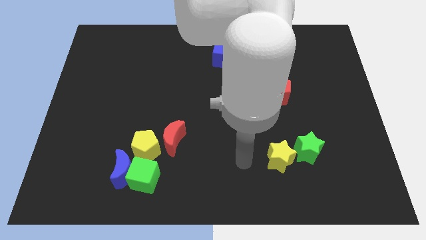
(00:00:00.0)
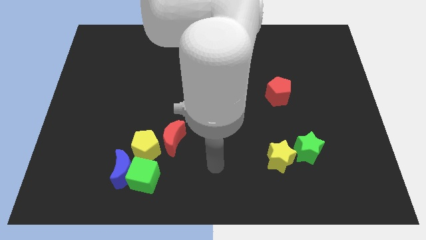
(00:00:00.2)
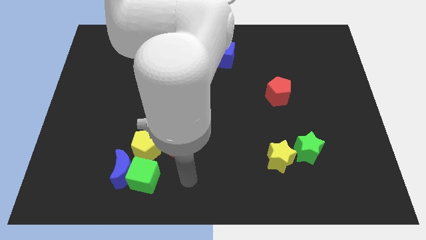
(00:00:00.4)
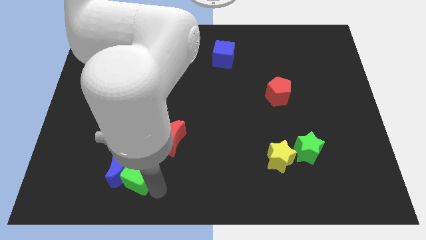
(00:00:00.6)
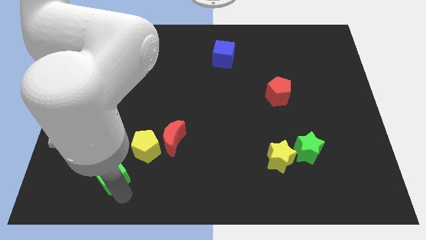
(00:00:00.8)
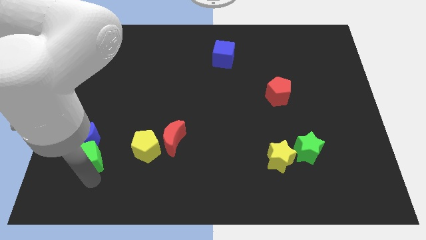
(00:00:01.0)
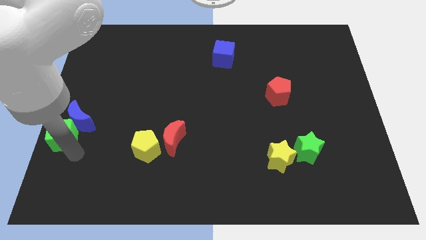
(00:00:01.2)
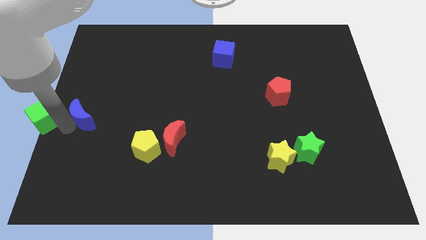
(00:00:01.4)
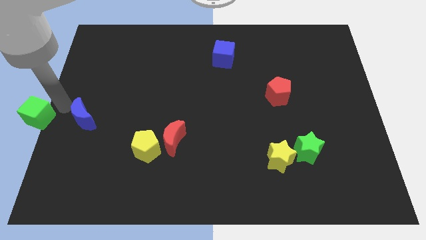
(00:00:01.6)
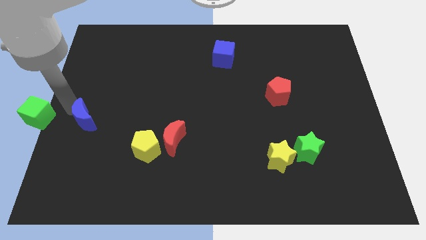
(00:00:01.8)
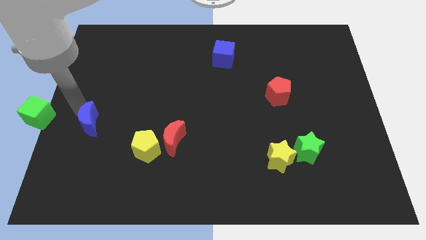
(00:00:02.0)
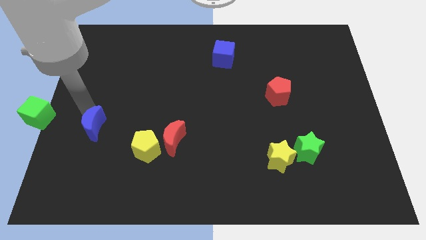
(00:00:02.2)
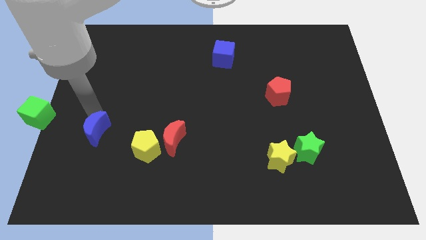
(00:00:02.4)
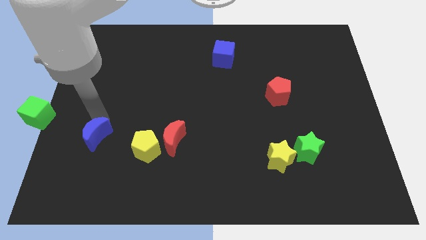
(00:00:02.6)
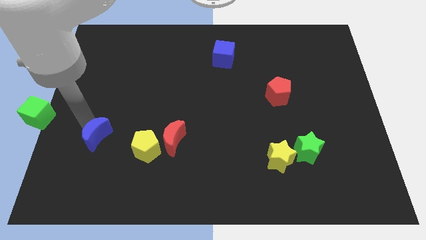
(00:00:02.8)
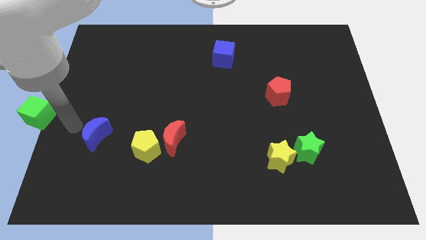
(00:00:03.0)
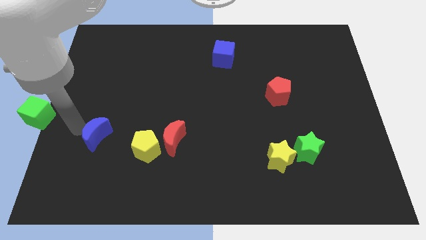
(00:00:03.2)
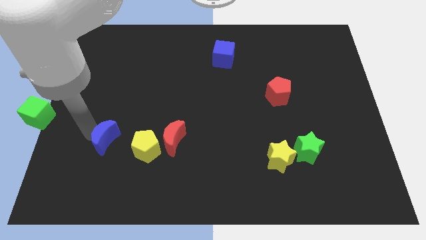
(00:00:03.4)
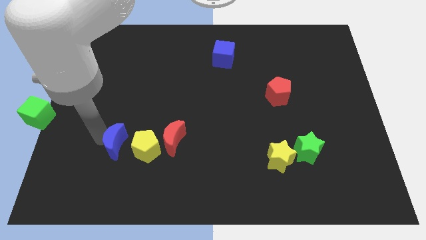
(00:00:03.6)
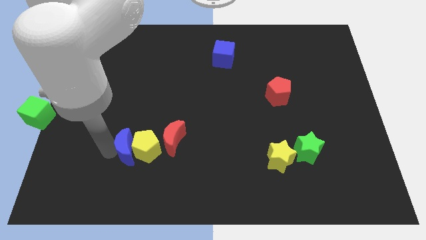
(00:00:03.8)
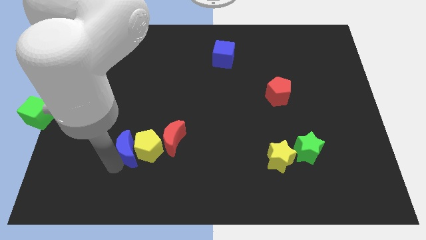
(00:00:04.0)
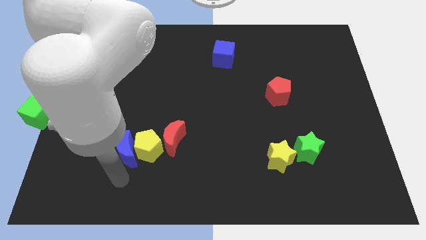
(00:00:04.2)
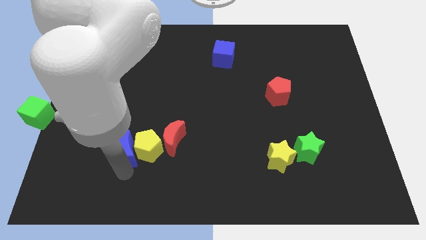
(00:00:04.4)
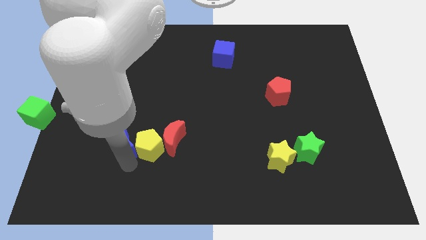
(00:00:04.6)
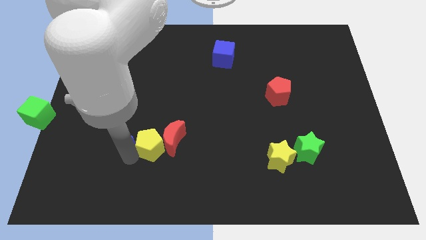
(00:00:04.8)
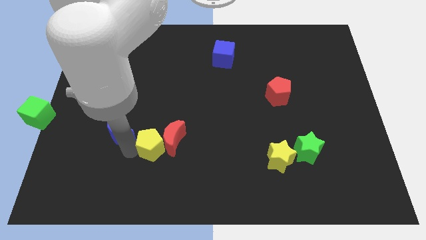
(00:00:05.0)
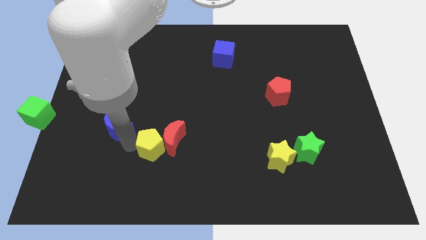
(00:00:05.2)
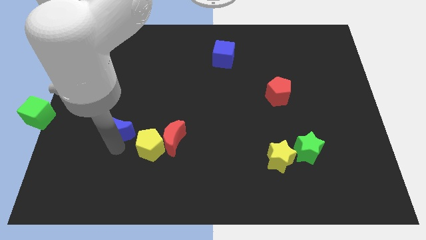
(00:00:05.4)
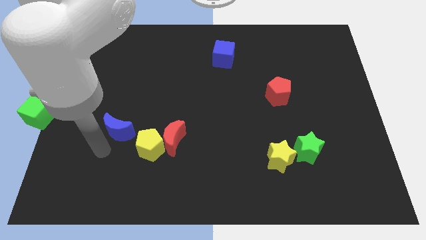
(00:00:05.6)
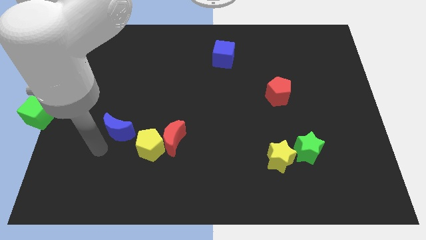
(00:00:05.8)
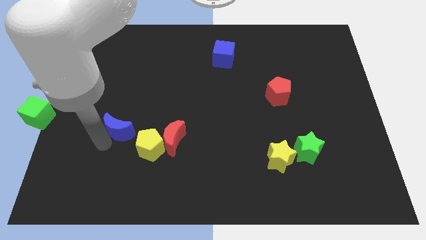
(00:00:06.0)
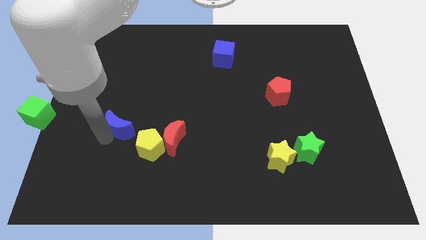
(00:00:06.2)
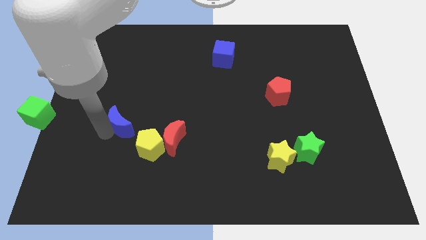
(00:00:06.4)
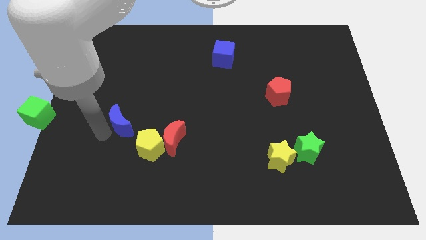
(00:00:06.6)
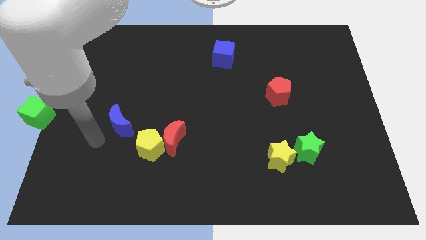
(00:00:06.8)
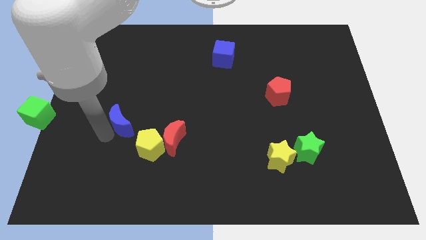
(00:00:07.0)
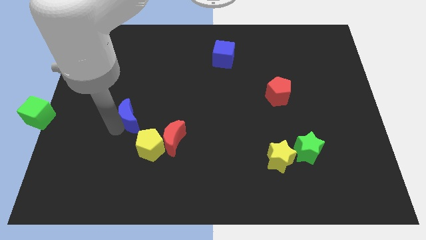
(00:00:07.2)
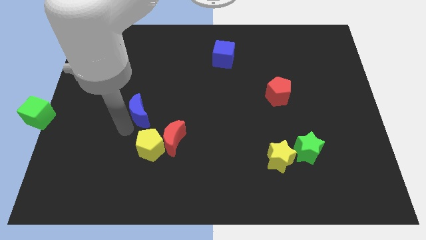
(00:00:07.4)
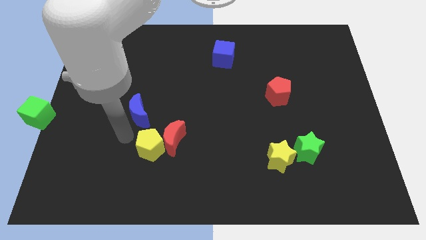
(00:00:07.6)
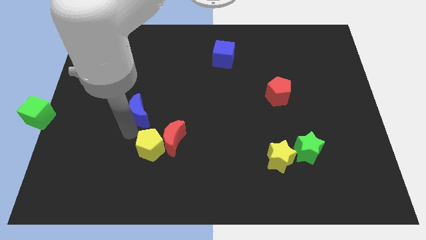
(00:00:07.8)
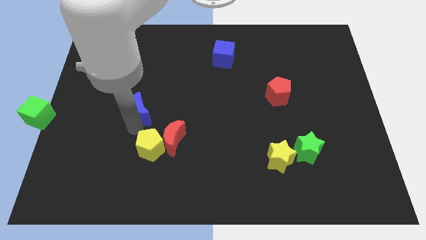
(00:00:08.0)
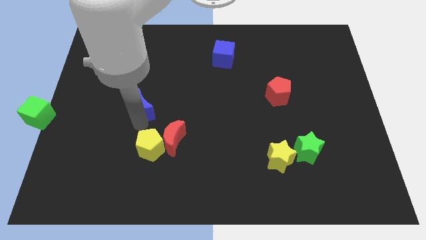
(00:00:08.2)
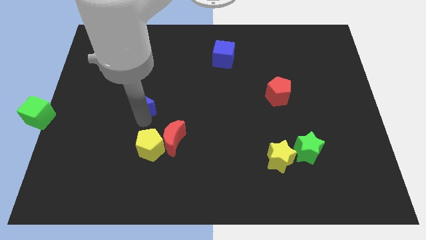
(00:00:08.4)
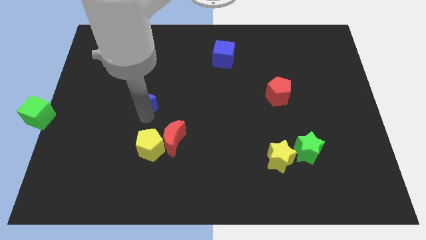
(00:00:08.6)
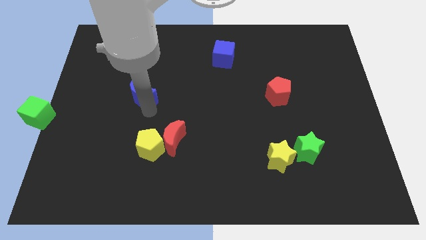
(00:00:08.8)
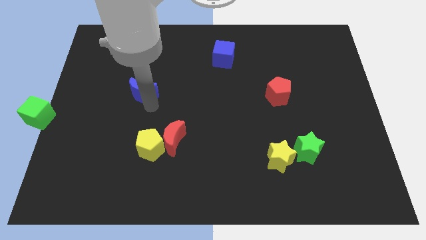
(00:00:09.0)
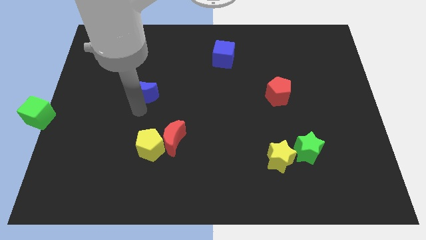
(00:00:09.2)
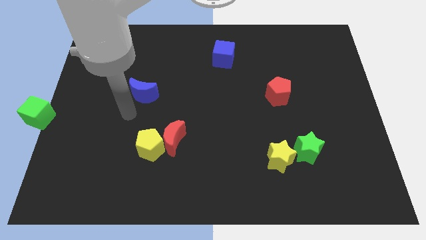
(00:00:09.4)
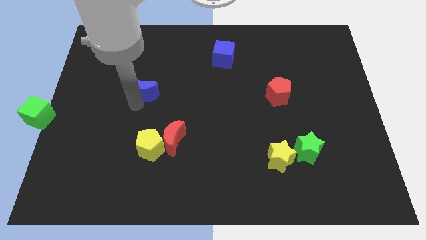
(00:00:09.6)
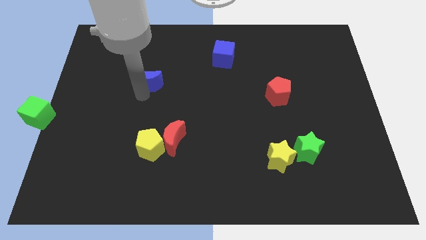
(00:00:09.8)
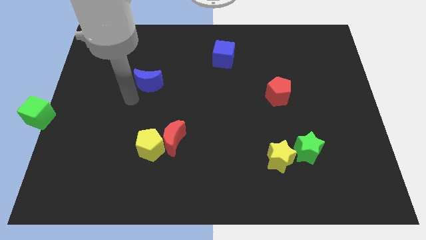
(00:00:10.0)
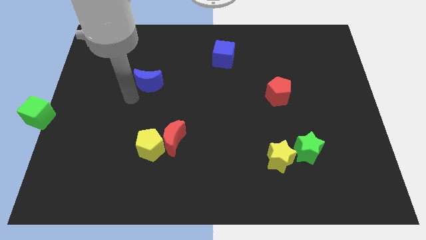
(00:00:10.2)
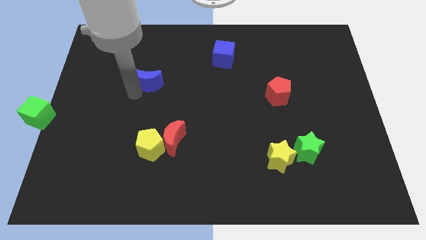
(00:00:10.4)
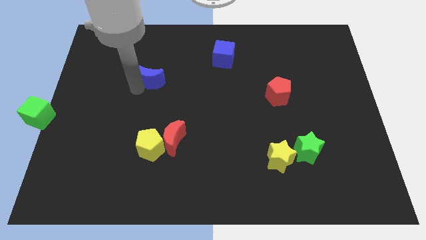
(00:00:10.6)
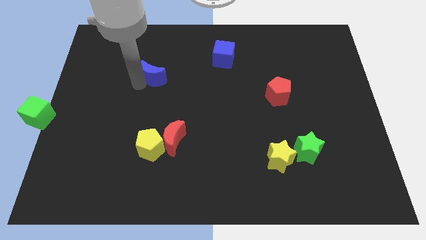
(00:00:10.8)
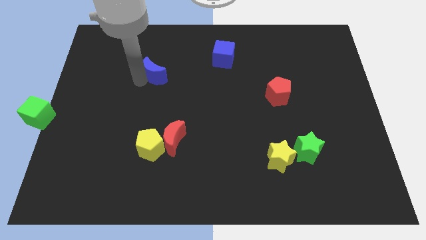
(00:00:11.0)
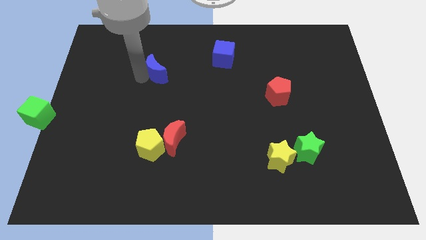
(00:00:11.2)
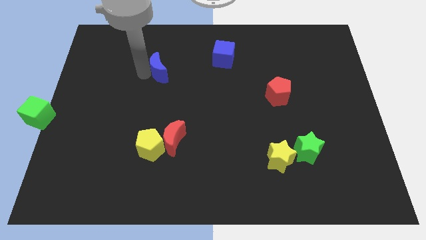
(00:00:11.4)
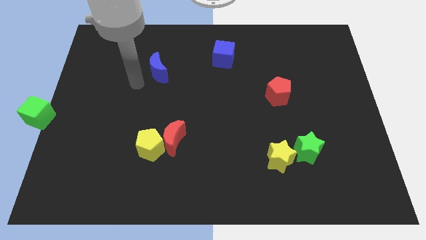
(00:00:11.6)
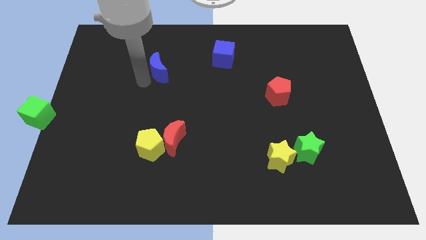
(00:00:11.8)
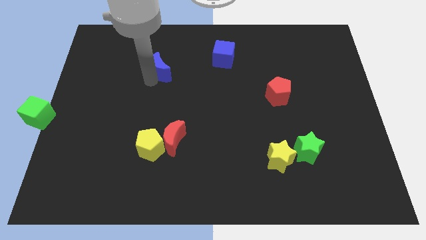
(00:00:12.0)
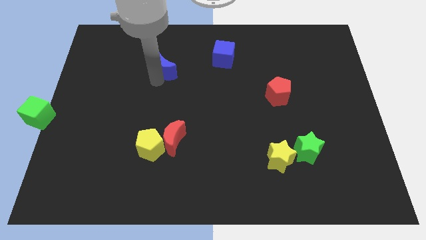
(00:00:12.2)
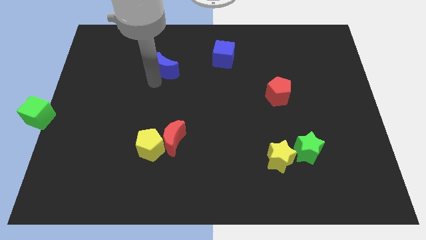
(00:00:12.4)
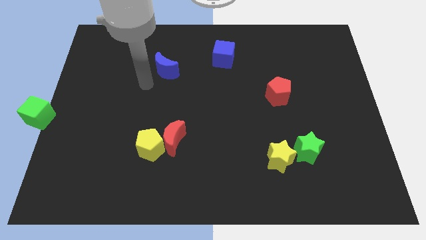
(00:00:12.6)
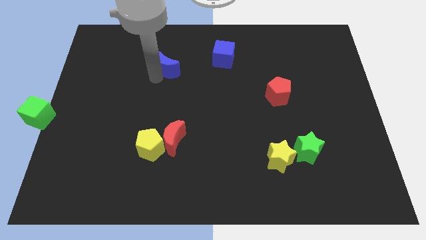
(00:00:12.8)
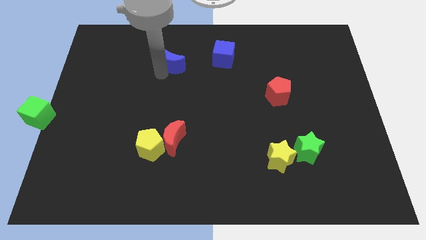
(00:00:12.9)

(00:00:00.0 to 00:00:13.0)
push the blue moon to the left of the blue cube

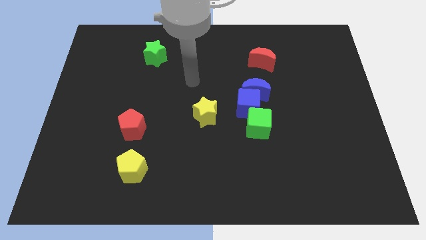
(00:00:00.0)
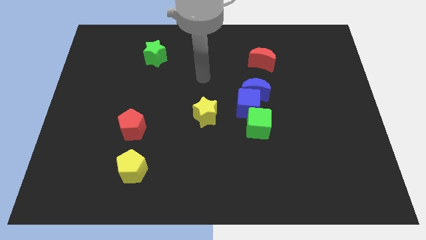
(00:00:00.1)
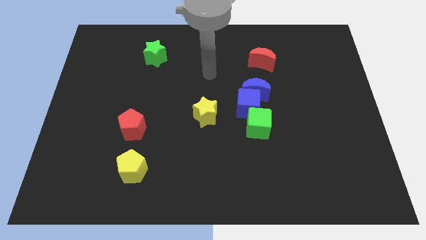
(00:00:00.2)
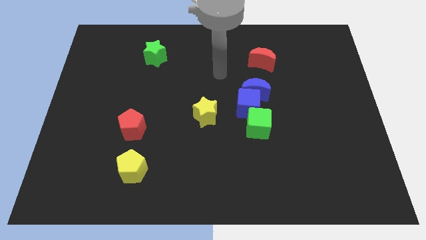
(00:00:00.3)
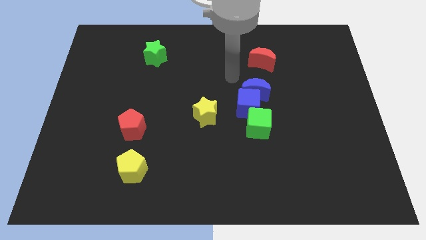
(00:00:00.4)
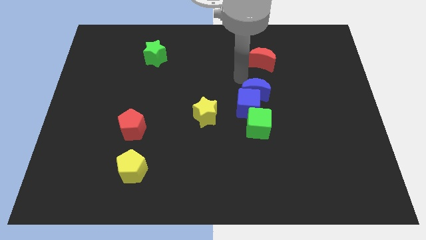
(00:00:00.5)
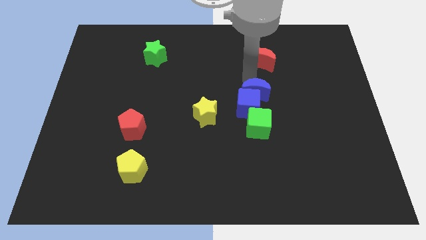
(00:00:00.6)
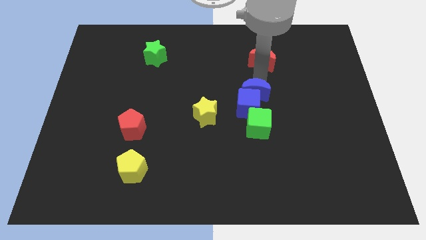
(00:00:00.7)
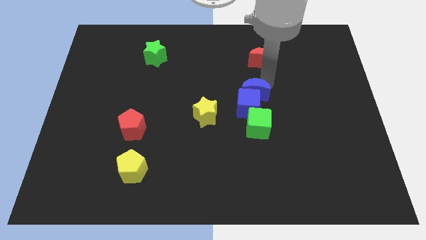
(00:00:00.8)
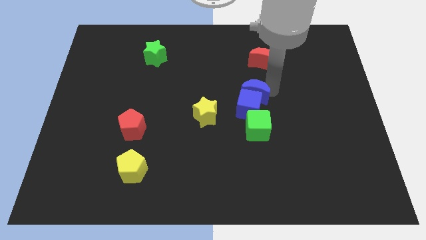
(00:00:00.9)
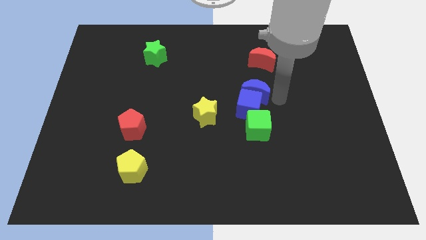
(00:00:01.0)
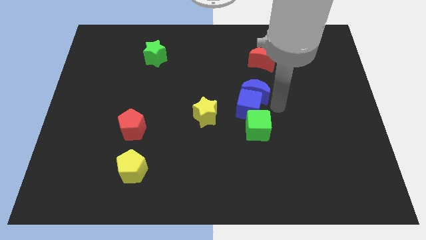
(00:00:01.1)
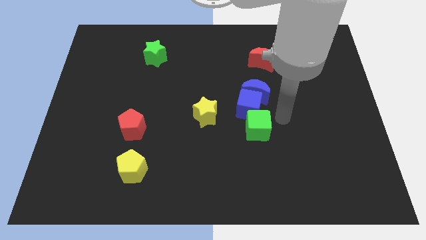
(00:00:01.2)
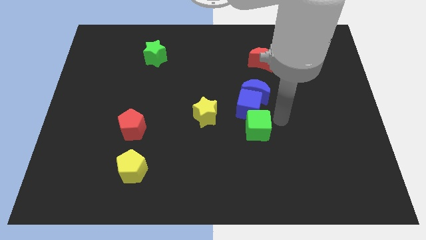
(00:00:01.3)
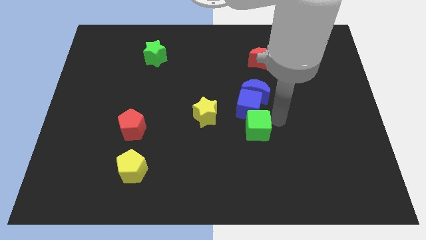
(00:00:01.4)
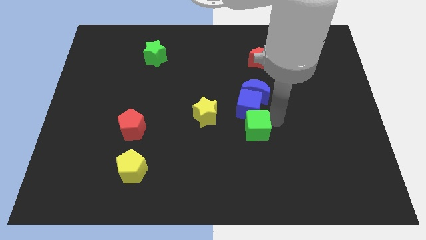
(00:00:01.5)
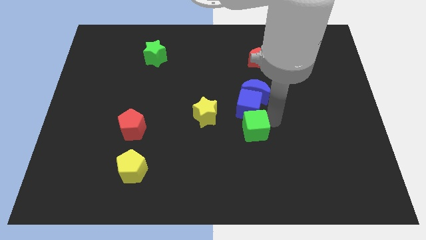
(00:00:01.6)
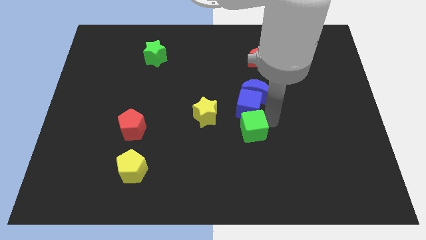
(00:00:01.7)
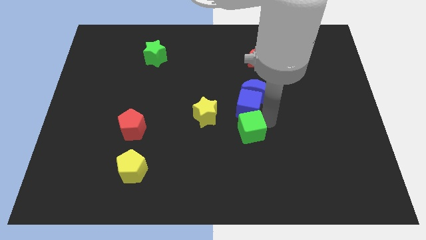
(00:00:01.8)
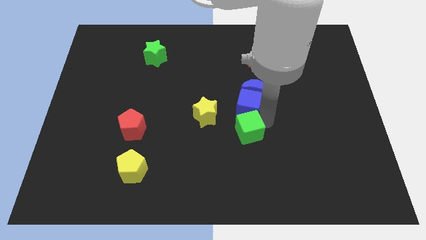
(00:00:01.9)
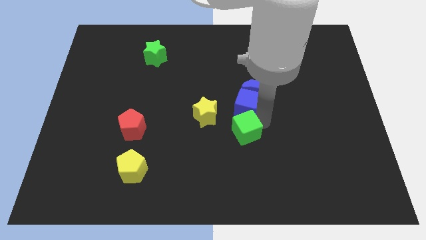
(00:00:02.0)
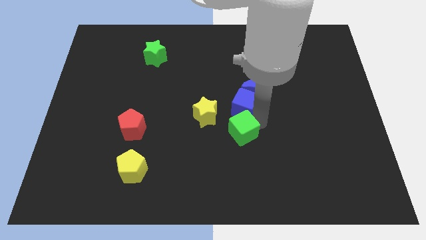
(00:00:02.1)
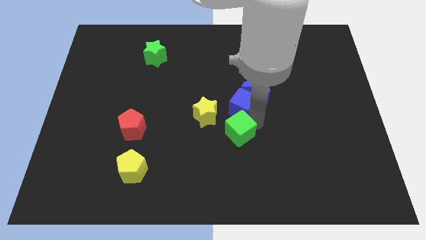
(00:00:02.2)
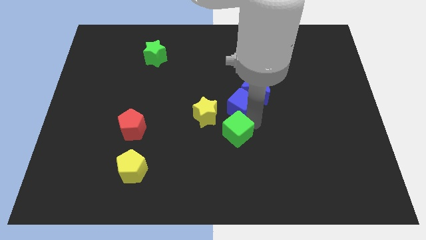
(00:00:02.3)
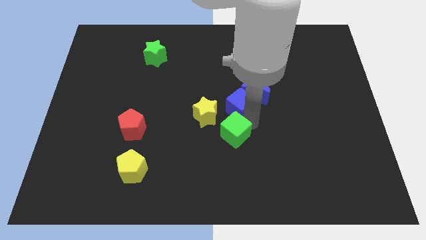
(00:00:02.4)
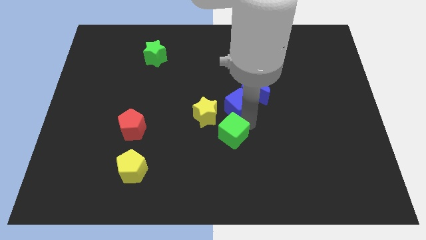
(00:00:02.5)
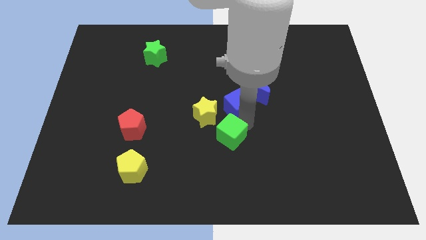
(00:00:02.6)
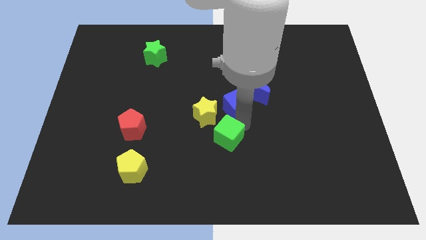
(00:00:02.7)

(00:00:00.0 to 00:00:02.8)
put the green cube to the bottom of the yellow star
